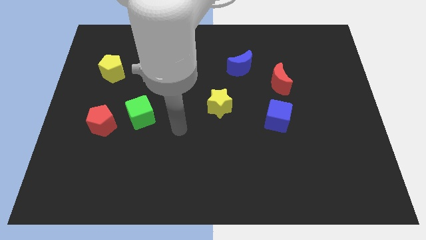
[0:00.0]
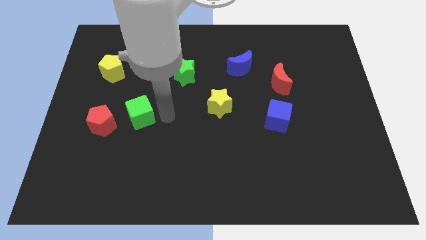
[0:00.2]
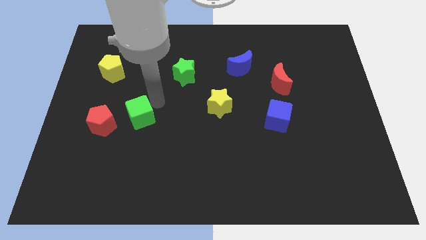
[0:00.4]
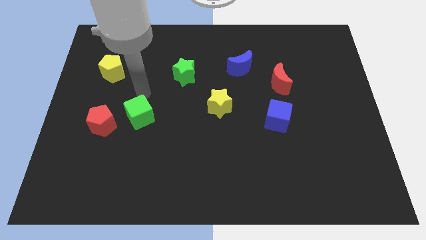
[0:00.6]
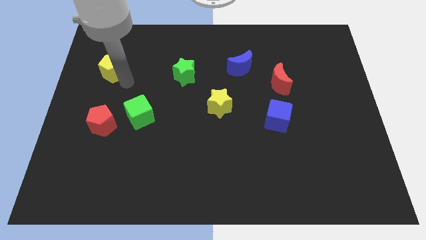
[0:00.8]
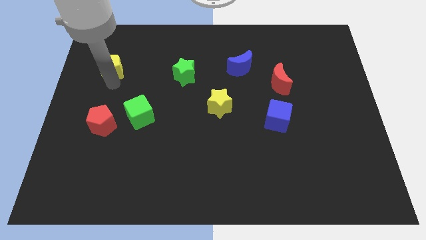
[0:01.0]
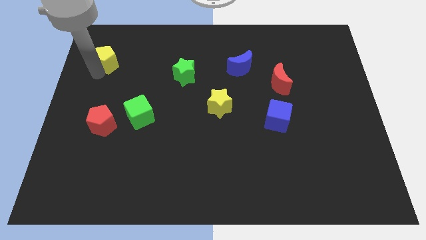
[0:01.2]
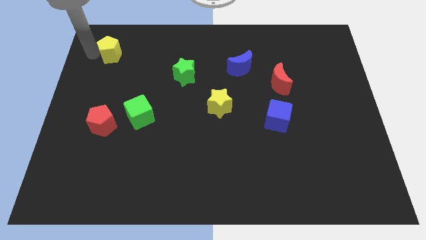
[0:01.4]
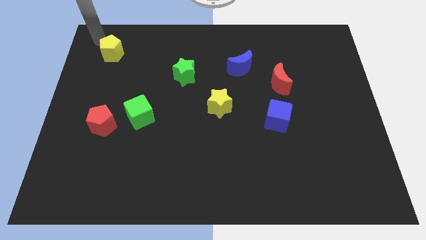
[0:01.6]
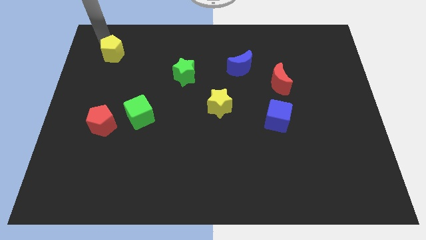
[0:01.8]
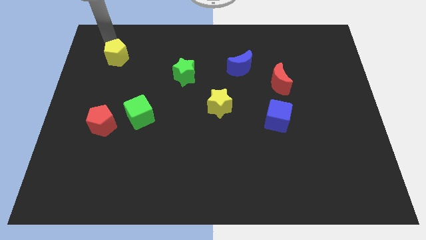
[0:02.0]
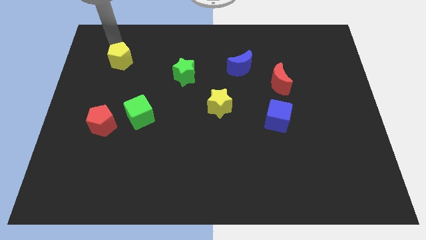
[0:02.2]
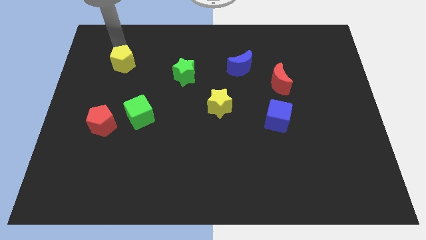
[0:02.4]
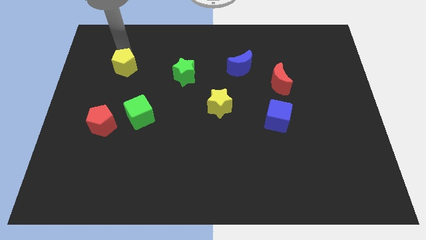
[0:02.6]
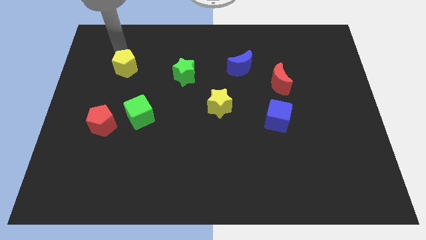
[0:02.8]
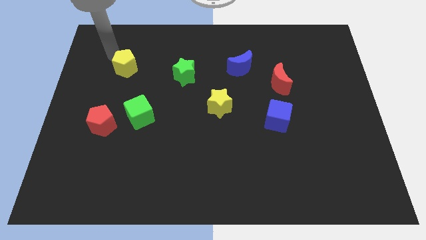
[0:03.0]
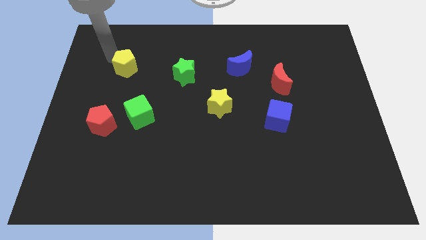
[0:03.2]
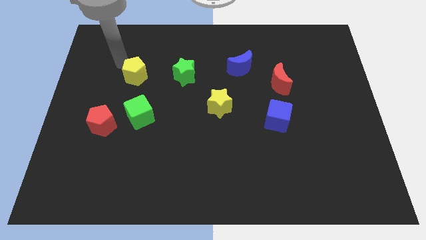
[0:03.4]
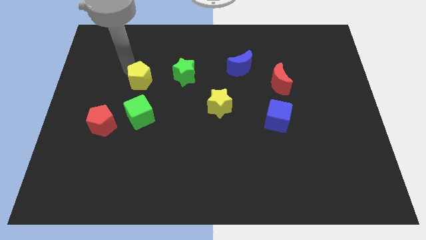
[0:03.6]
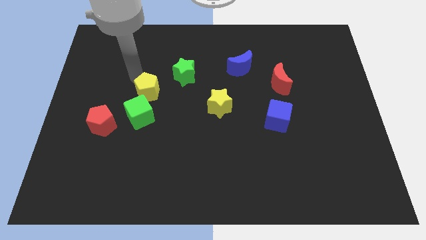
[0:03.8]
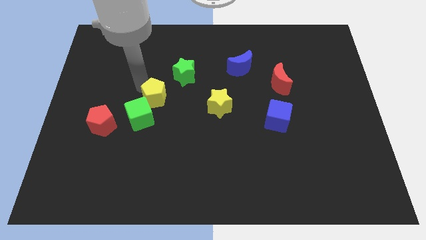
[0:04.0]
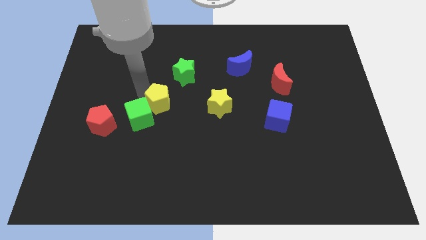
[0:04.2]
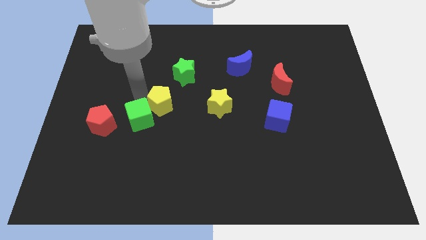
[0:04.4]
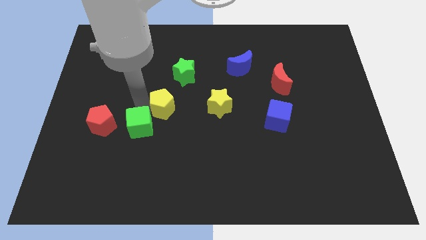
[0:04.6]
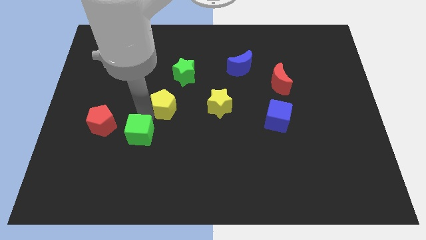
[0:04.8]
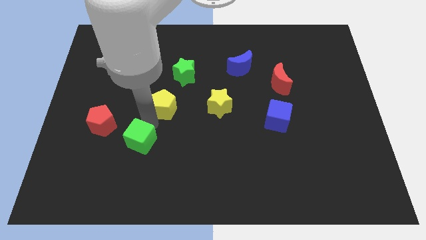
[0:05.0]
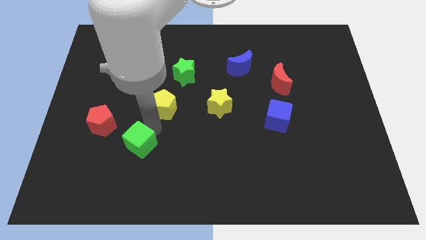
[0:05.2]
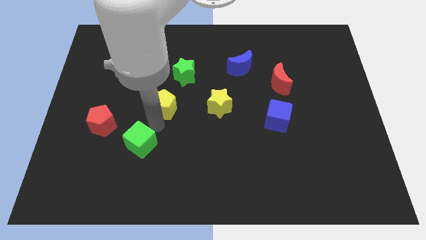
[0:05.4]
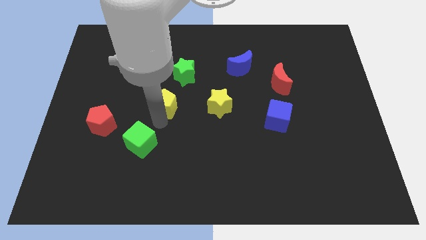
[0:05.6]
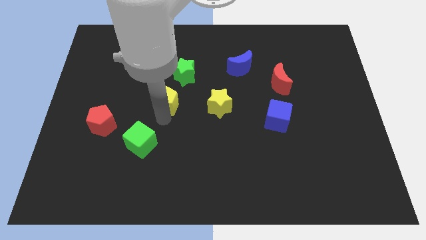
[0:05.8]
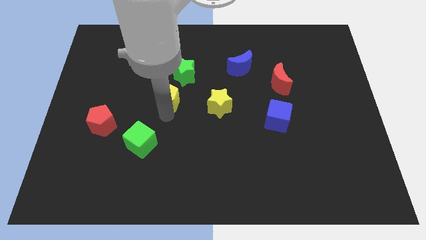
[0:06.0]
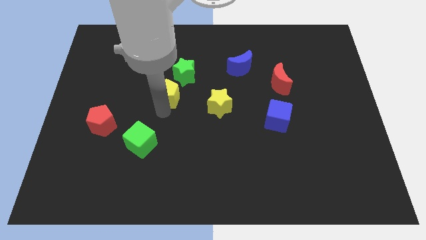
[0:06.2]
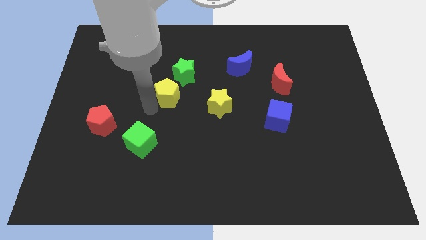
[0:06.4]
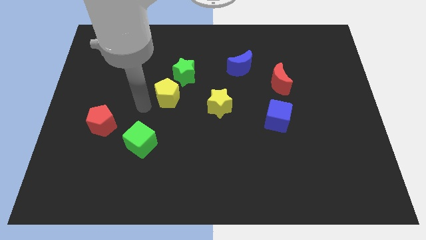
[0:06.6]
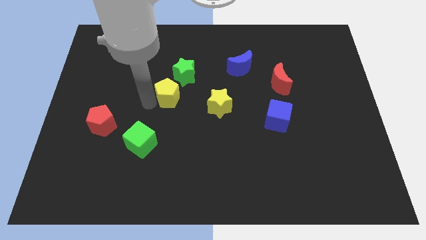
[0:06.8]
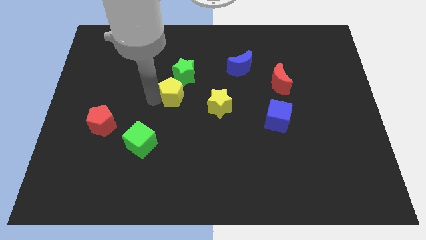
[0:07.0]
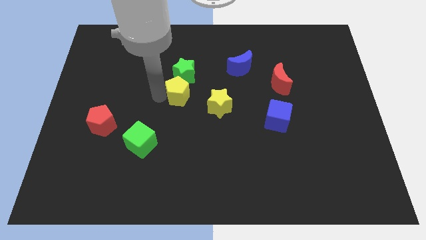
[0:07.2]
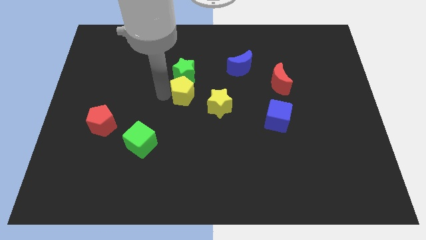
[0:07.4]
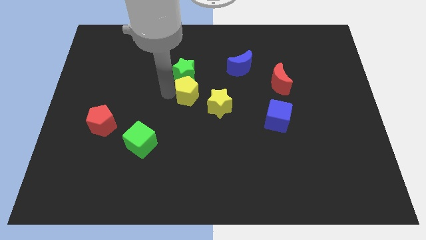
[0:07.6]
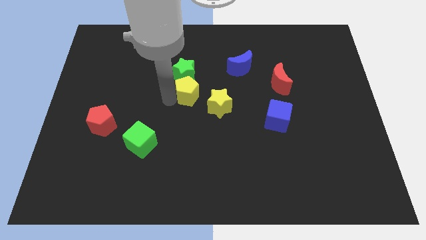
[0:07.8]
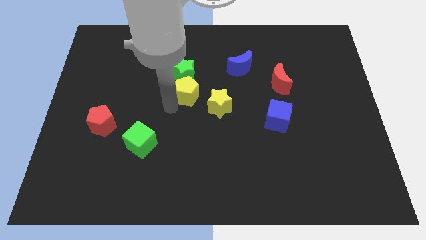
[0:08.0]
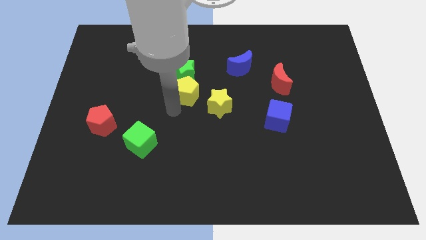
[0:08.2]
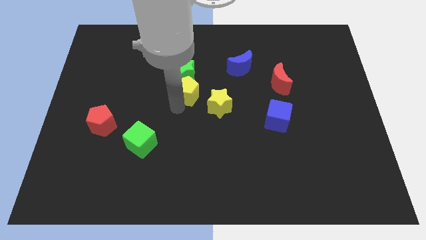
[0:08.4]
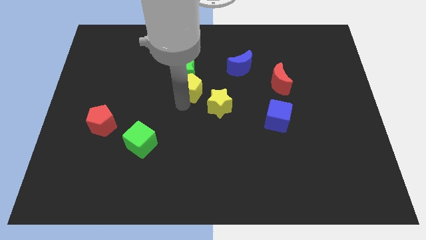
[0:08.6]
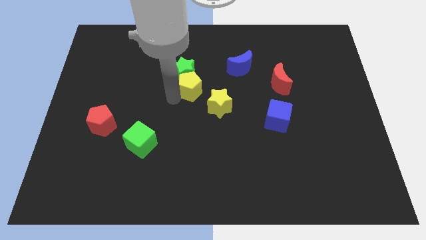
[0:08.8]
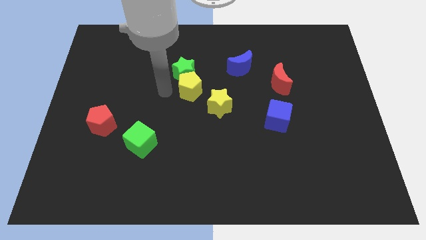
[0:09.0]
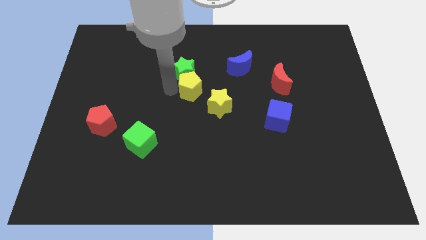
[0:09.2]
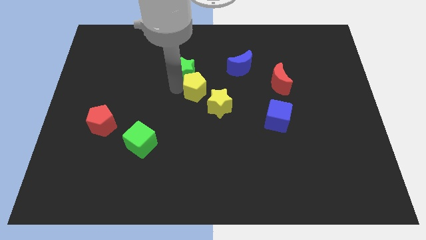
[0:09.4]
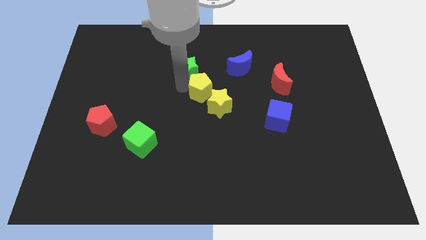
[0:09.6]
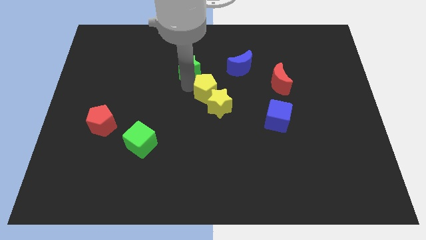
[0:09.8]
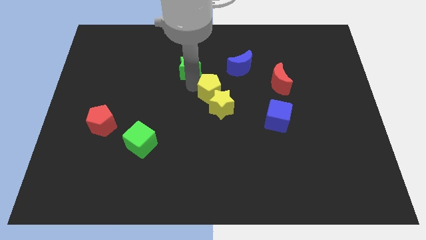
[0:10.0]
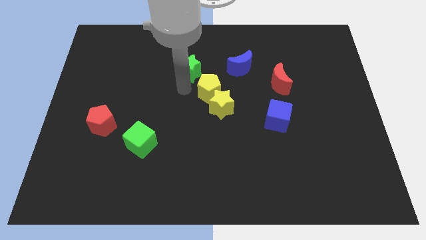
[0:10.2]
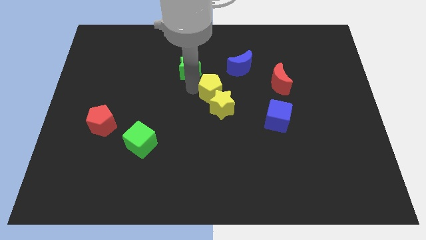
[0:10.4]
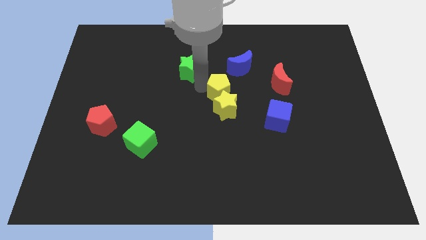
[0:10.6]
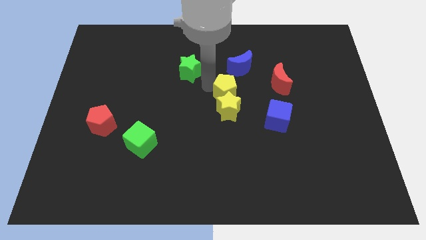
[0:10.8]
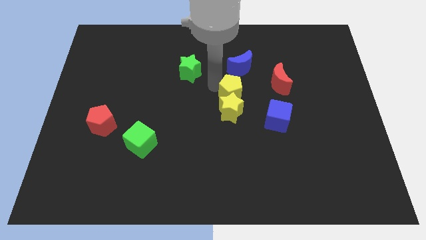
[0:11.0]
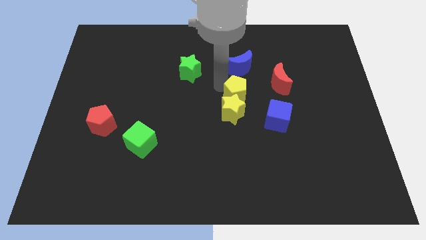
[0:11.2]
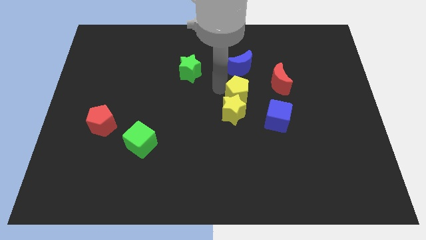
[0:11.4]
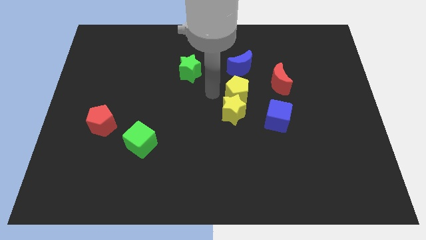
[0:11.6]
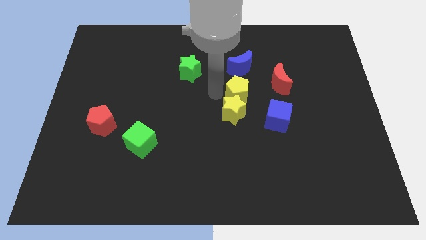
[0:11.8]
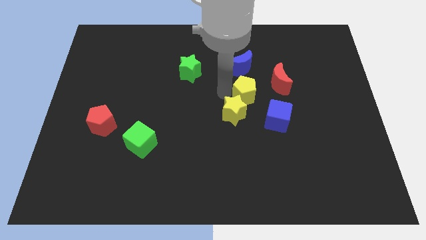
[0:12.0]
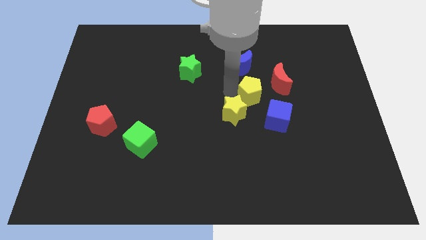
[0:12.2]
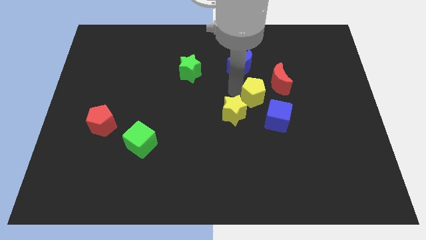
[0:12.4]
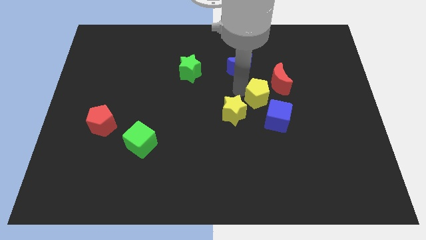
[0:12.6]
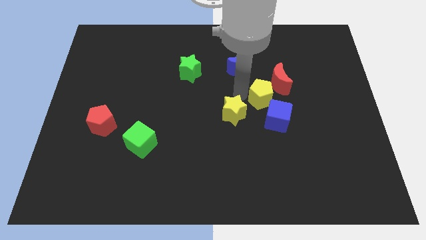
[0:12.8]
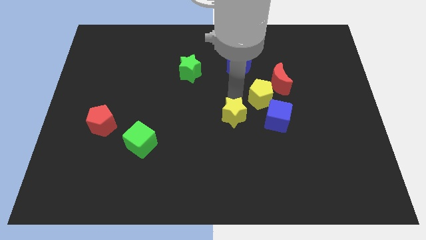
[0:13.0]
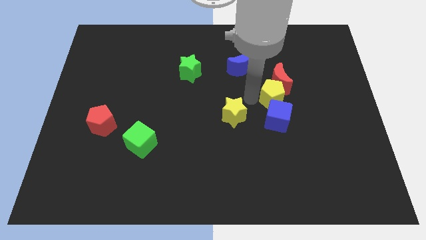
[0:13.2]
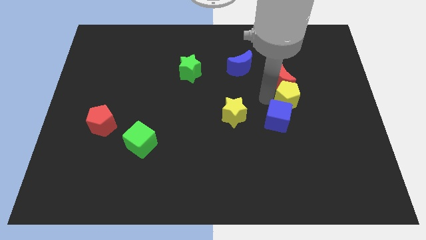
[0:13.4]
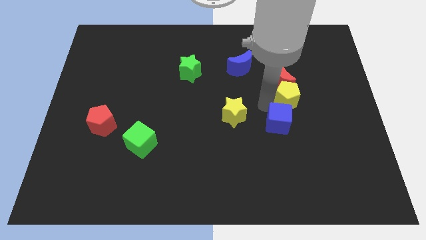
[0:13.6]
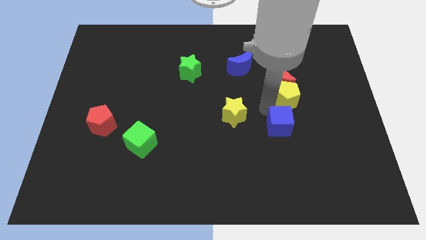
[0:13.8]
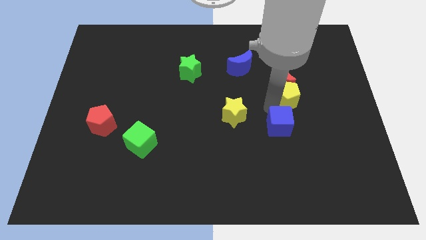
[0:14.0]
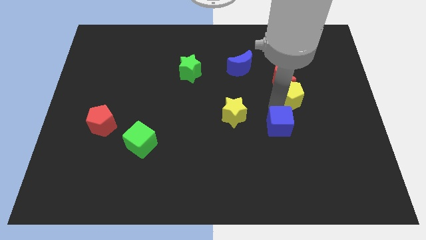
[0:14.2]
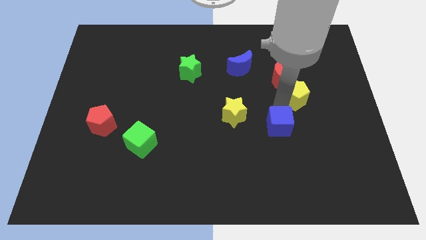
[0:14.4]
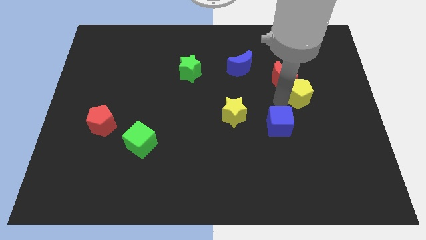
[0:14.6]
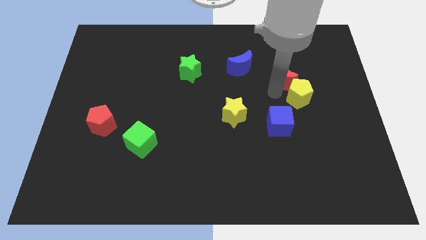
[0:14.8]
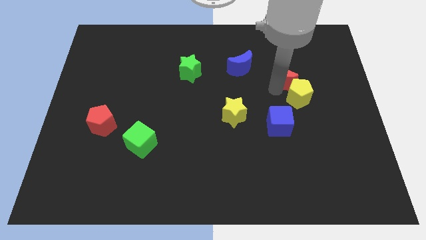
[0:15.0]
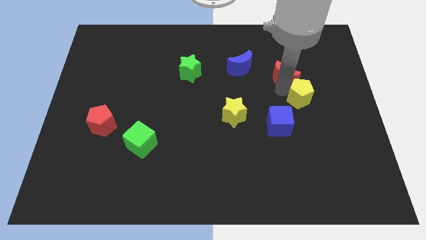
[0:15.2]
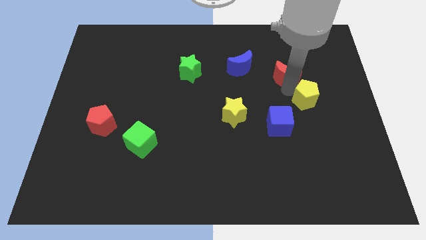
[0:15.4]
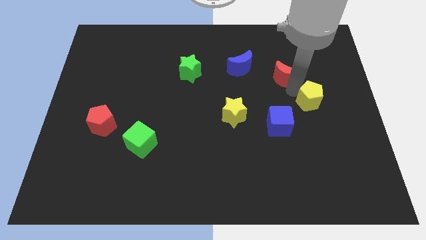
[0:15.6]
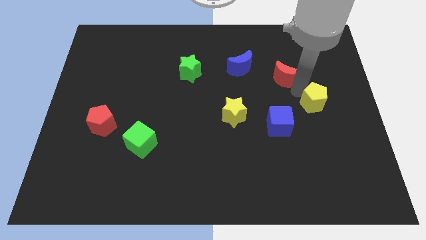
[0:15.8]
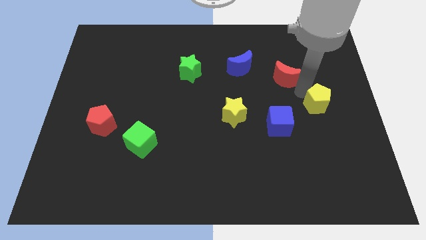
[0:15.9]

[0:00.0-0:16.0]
move the yellow pentagon to the center right

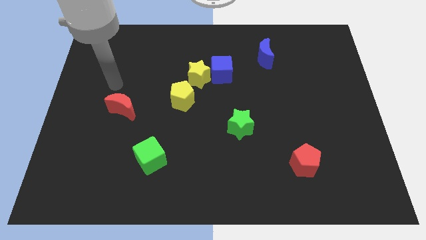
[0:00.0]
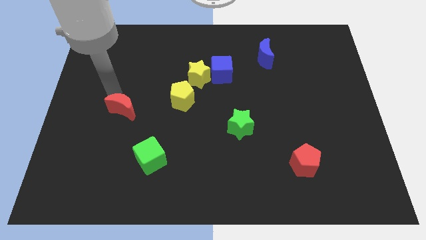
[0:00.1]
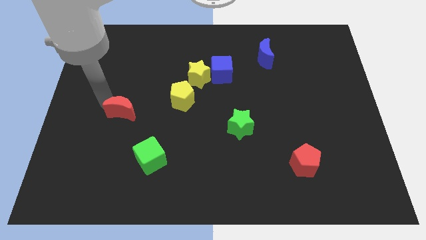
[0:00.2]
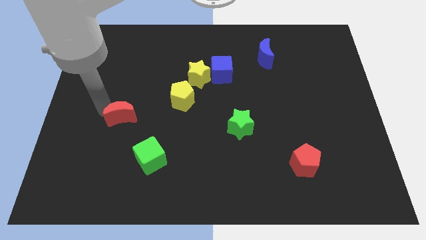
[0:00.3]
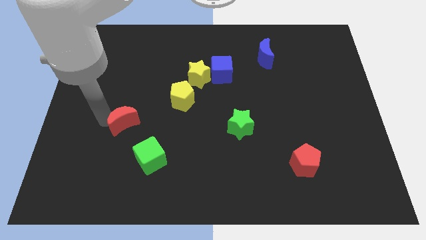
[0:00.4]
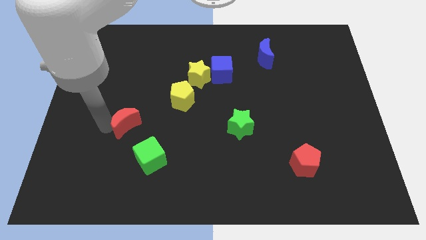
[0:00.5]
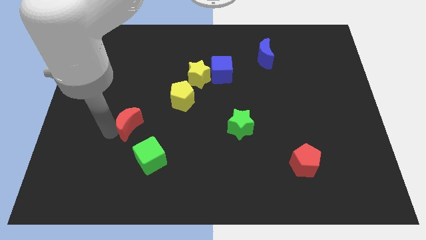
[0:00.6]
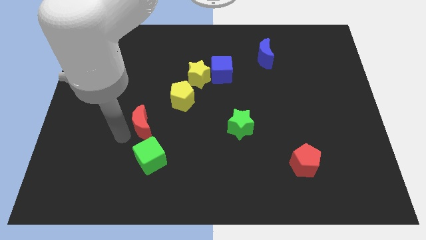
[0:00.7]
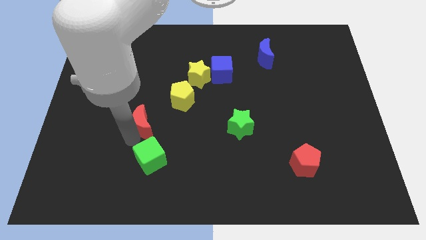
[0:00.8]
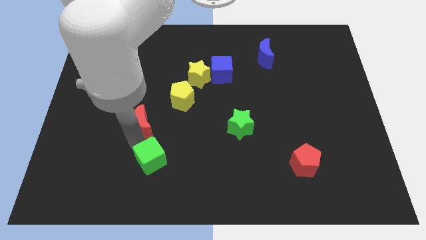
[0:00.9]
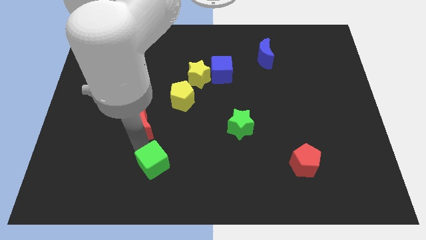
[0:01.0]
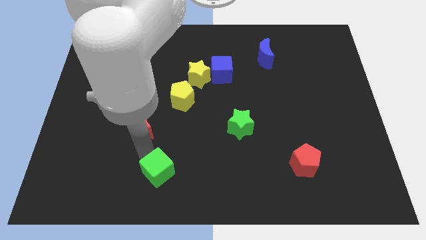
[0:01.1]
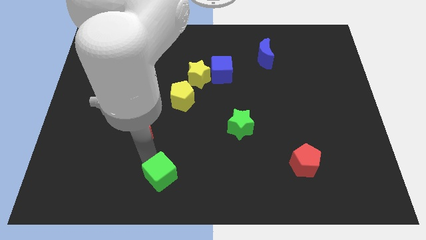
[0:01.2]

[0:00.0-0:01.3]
move the green cube to the bottom side
